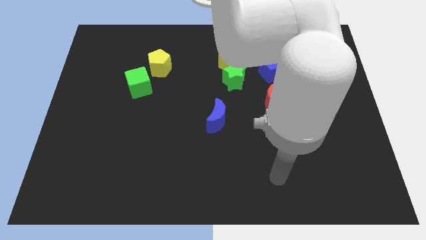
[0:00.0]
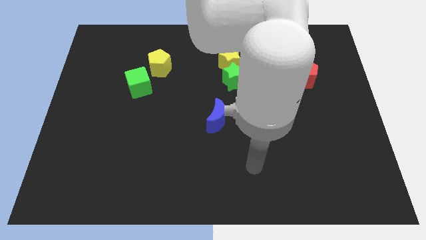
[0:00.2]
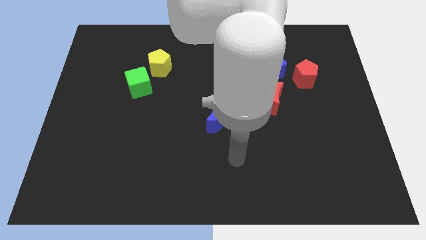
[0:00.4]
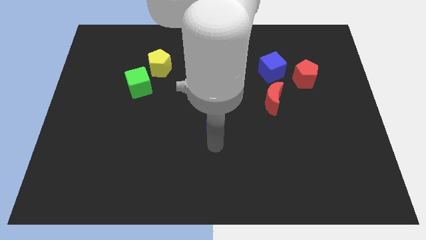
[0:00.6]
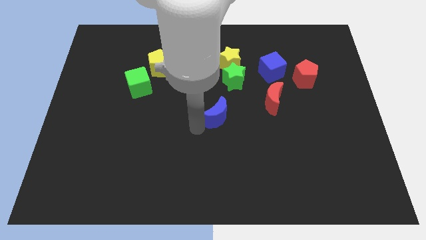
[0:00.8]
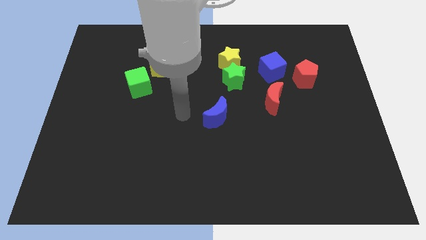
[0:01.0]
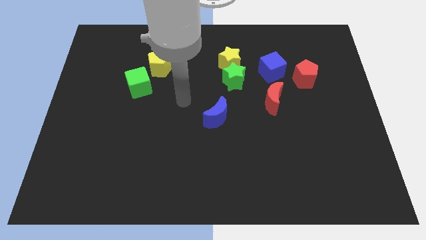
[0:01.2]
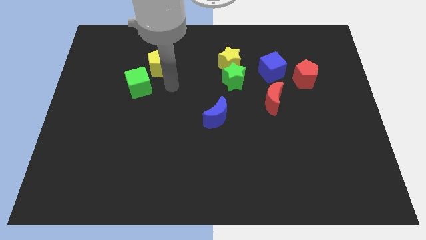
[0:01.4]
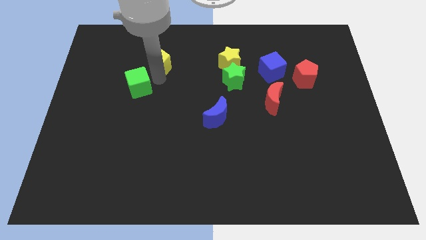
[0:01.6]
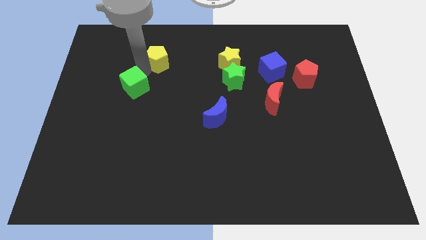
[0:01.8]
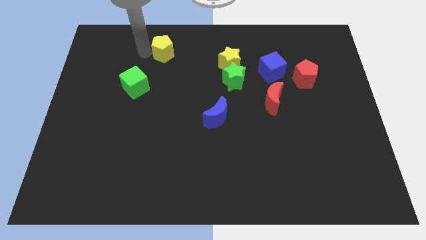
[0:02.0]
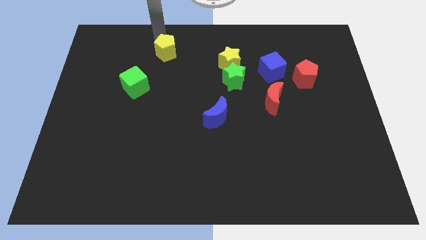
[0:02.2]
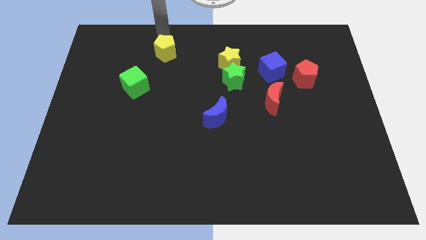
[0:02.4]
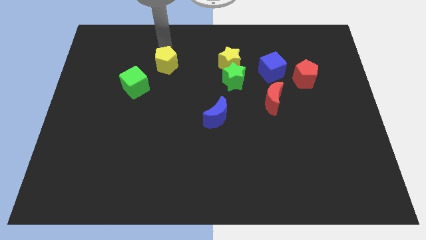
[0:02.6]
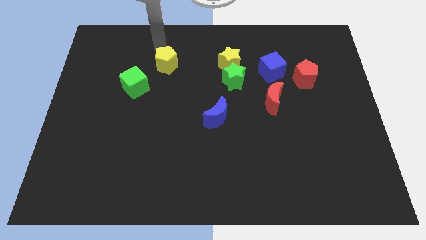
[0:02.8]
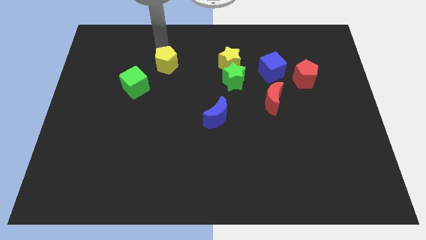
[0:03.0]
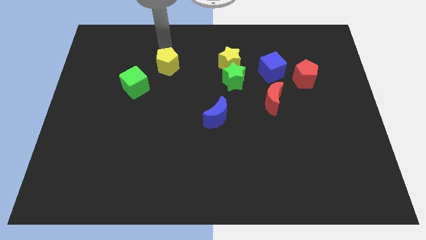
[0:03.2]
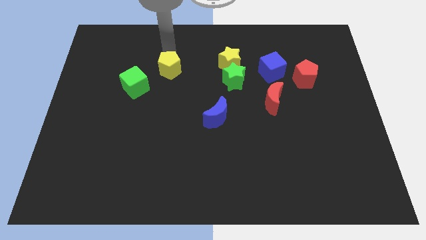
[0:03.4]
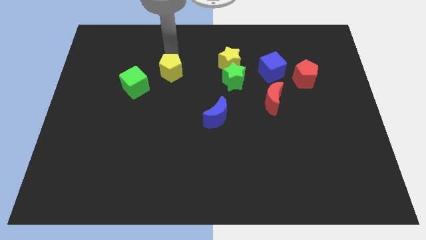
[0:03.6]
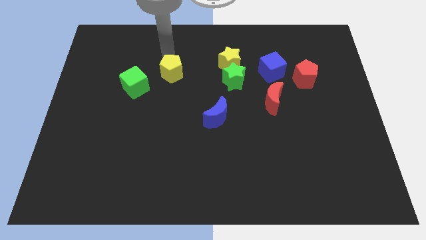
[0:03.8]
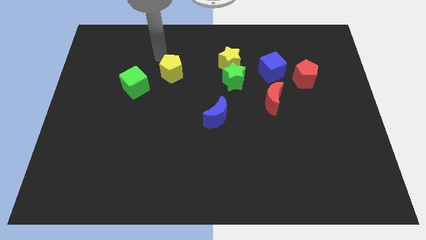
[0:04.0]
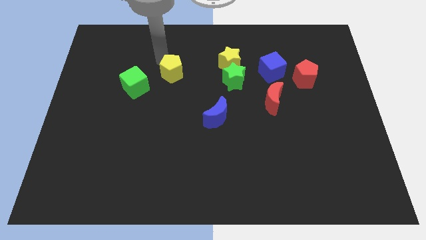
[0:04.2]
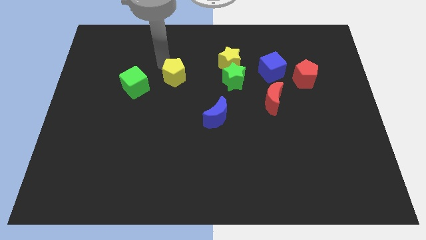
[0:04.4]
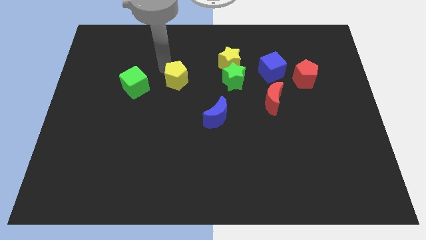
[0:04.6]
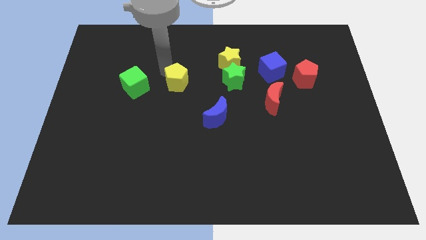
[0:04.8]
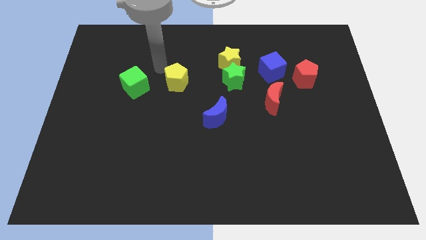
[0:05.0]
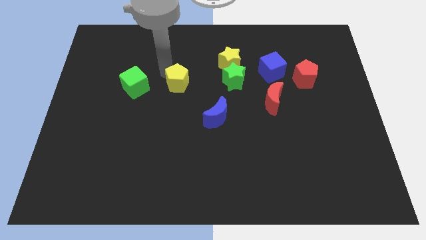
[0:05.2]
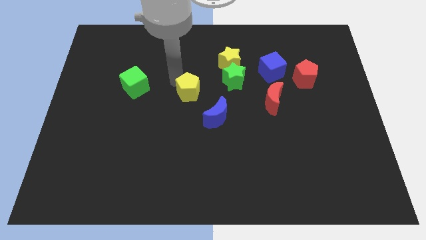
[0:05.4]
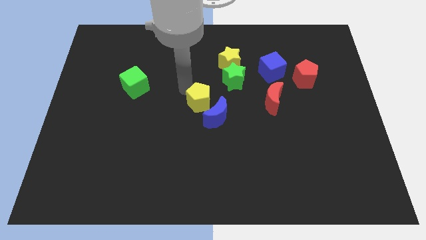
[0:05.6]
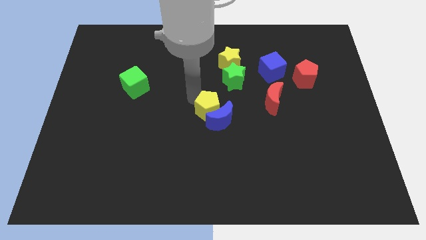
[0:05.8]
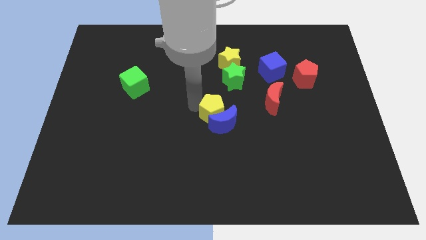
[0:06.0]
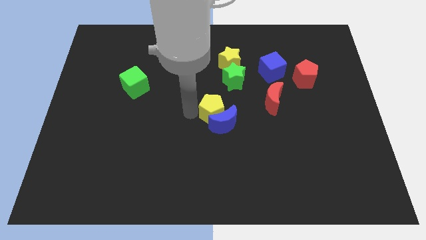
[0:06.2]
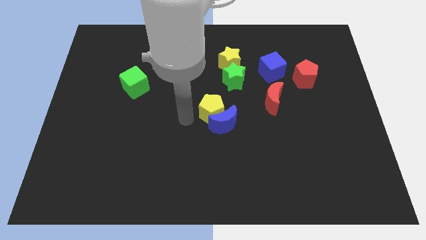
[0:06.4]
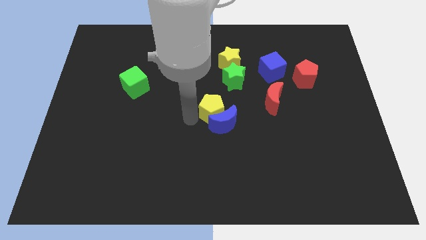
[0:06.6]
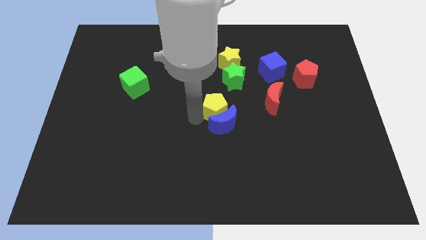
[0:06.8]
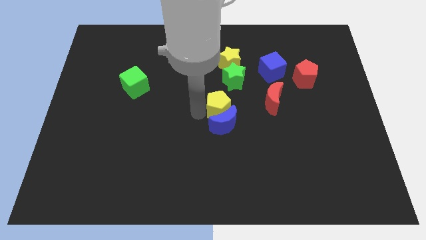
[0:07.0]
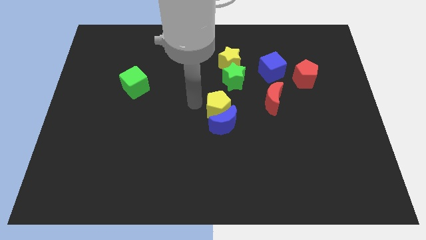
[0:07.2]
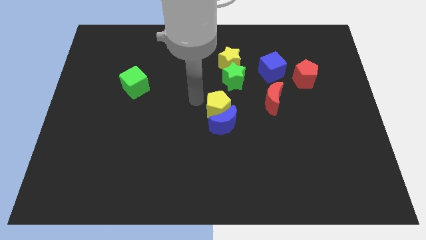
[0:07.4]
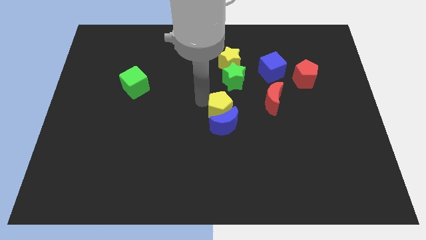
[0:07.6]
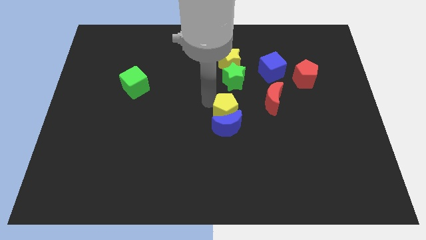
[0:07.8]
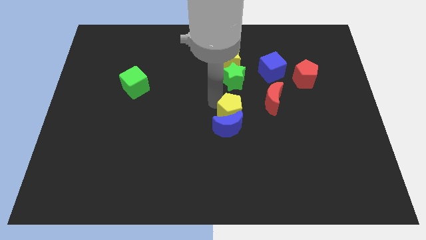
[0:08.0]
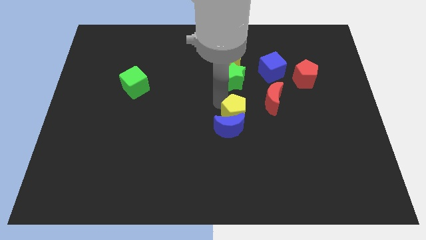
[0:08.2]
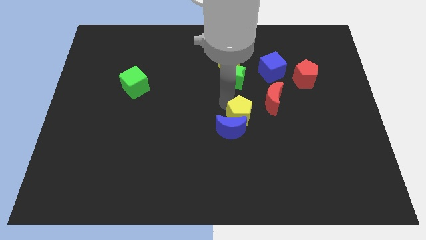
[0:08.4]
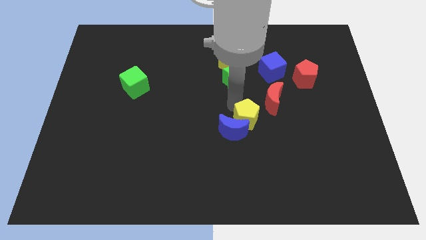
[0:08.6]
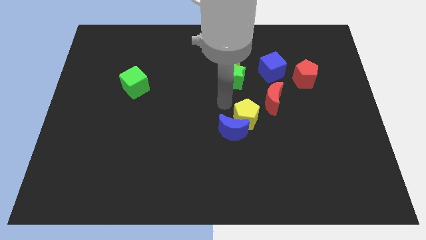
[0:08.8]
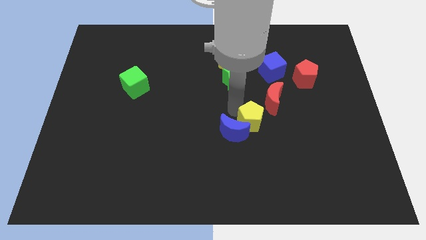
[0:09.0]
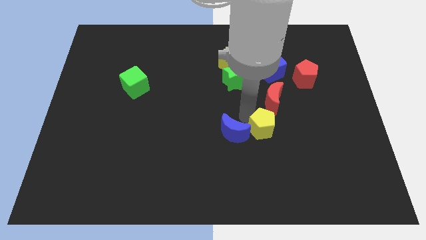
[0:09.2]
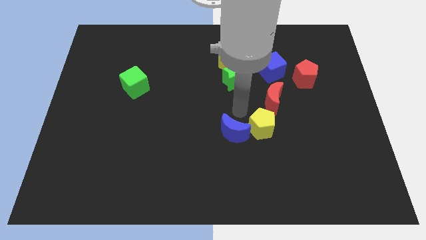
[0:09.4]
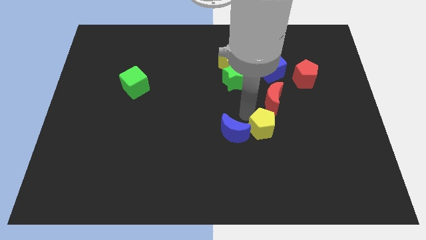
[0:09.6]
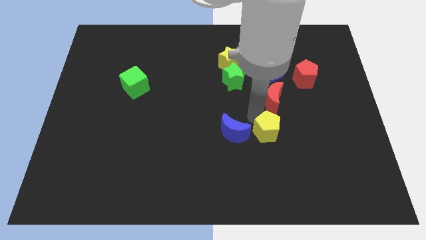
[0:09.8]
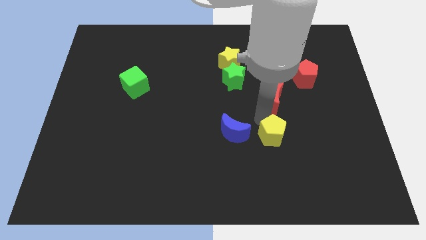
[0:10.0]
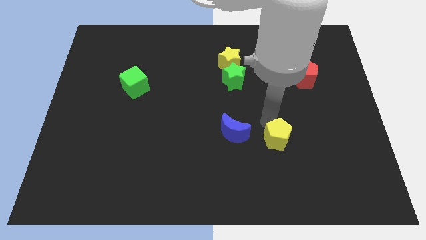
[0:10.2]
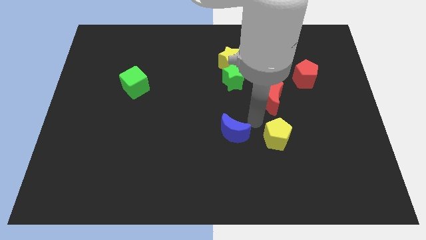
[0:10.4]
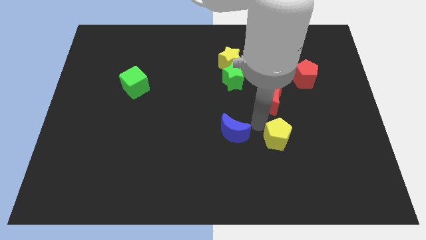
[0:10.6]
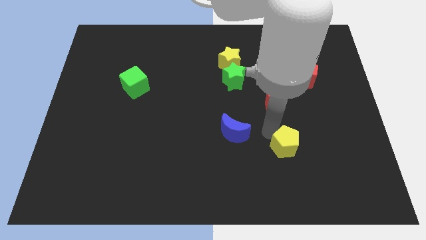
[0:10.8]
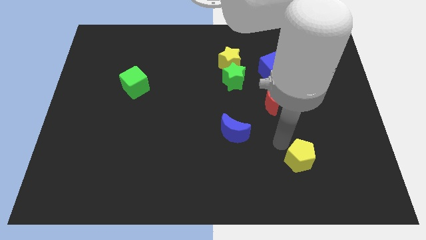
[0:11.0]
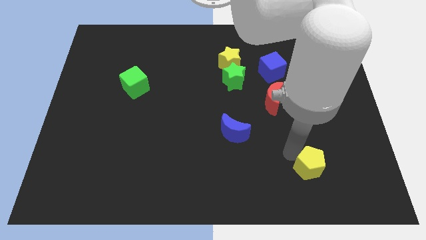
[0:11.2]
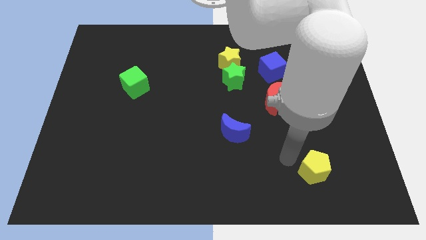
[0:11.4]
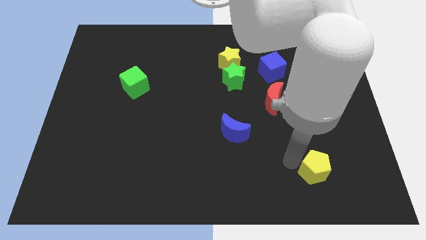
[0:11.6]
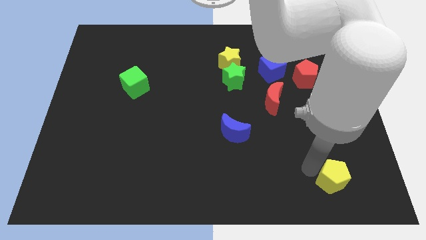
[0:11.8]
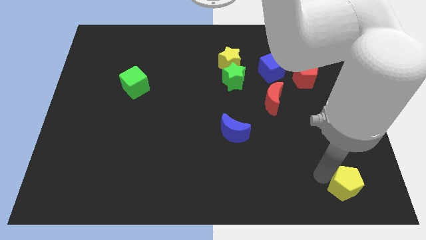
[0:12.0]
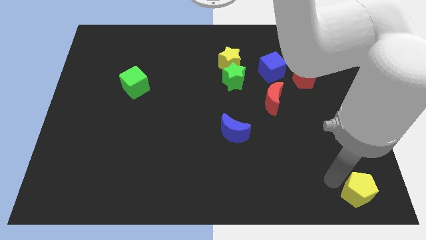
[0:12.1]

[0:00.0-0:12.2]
put the yellow pentagon to the bottom right corner

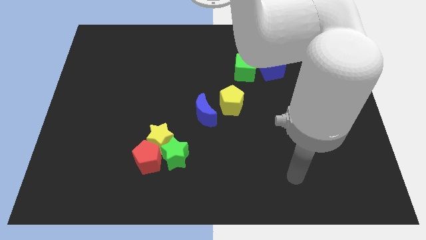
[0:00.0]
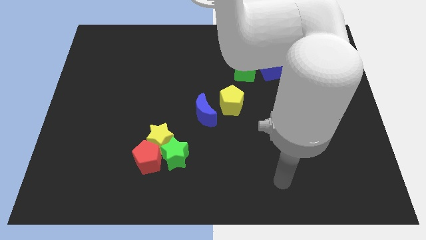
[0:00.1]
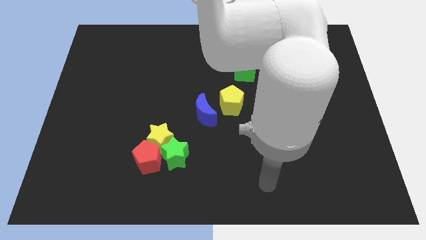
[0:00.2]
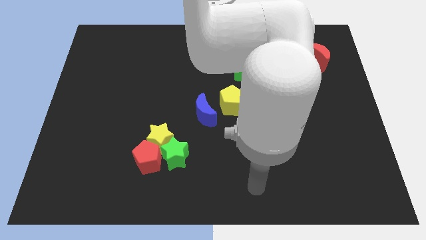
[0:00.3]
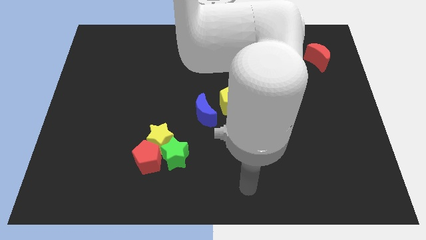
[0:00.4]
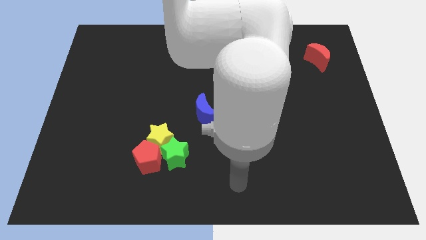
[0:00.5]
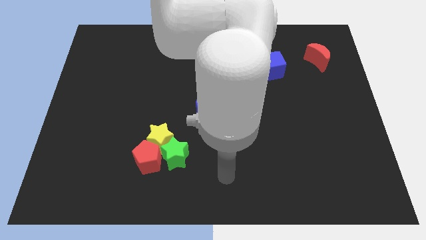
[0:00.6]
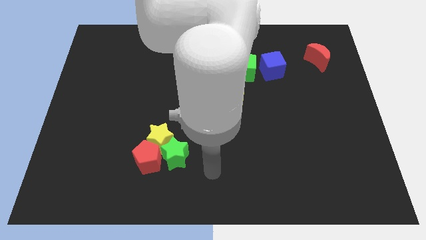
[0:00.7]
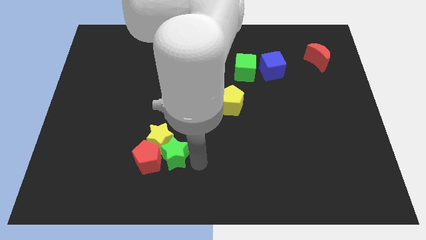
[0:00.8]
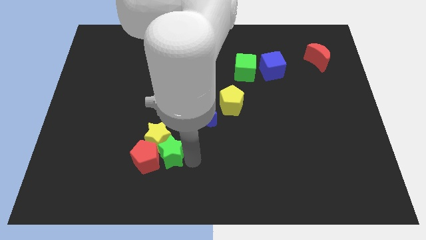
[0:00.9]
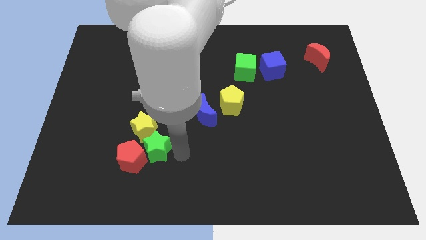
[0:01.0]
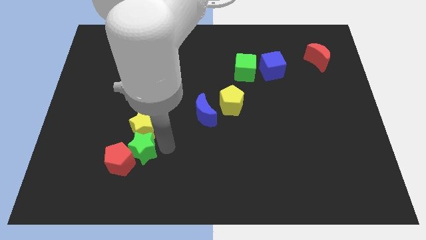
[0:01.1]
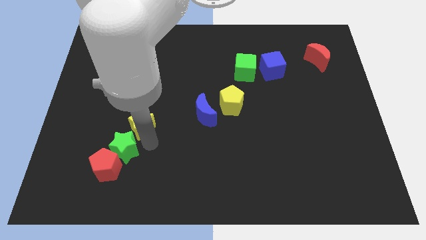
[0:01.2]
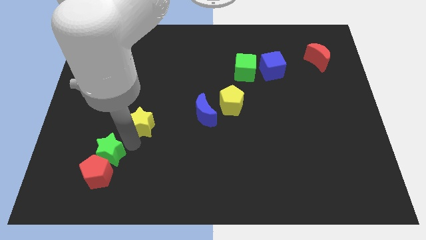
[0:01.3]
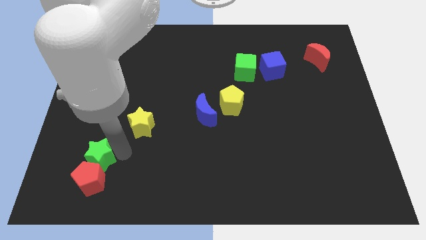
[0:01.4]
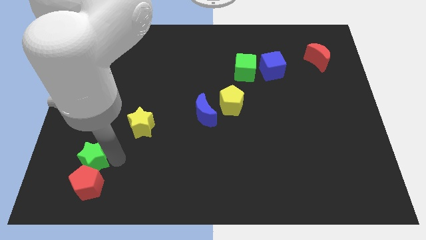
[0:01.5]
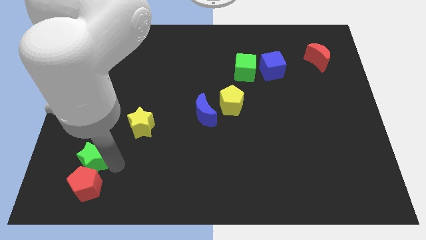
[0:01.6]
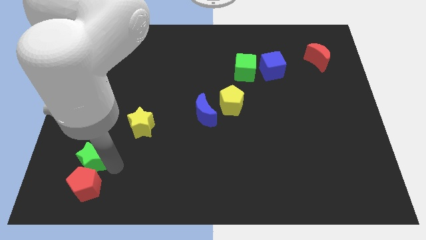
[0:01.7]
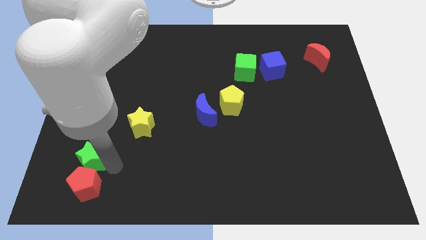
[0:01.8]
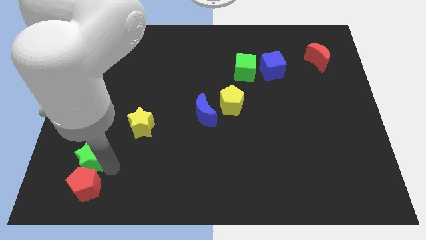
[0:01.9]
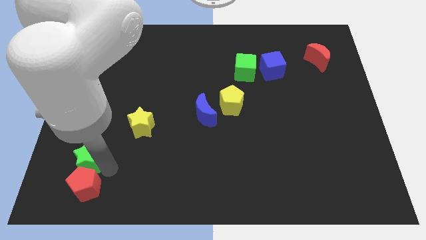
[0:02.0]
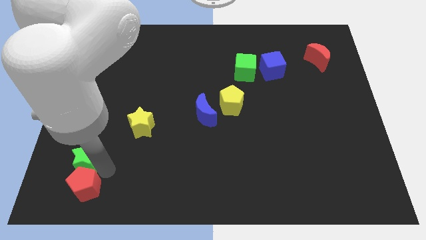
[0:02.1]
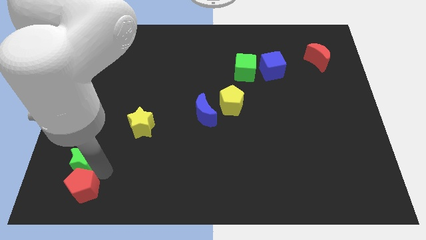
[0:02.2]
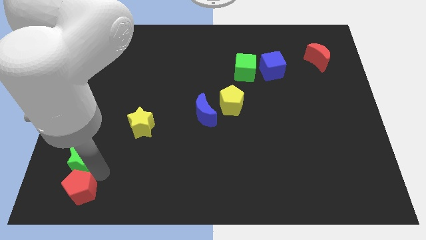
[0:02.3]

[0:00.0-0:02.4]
put the red pentagon to the bottom left corner
